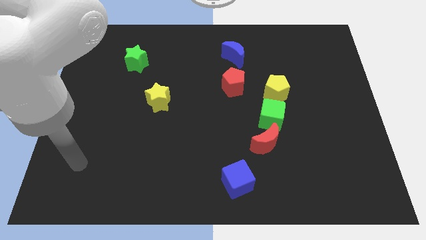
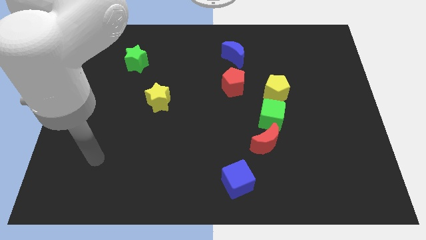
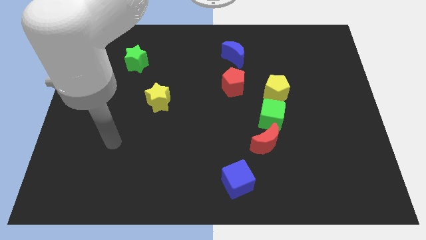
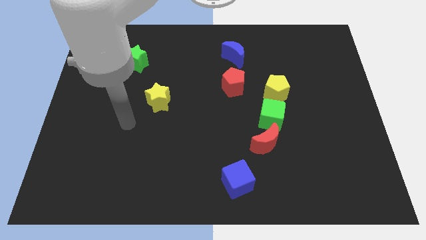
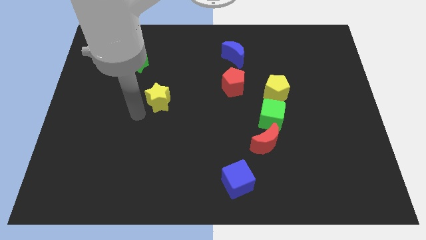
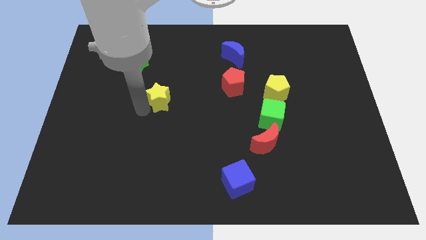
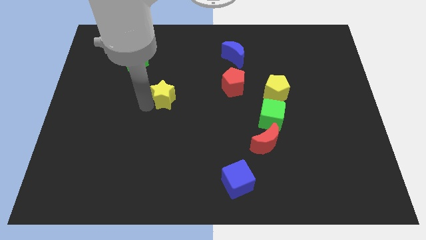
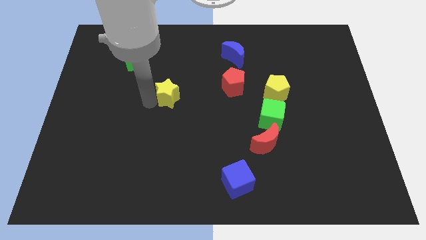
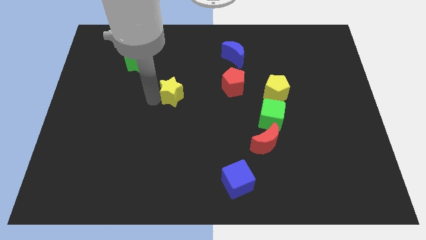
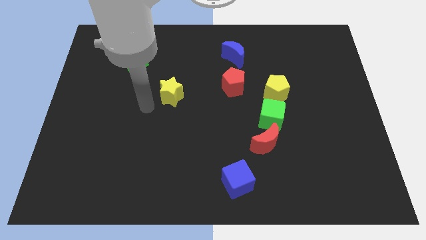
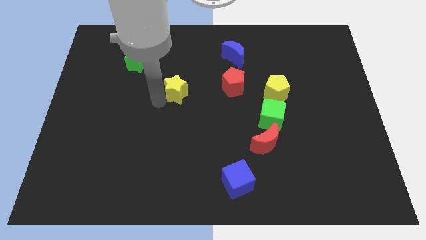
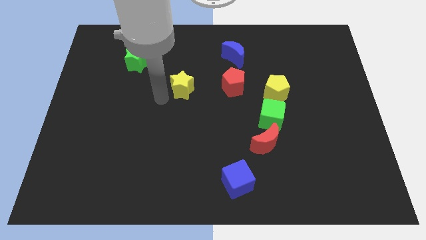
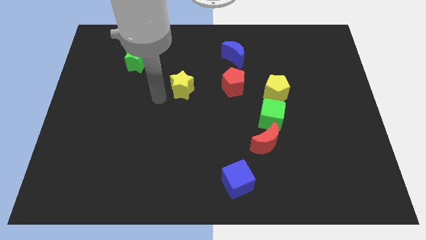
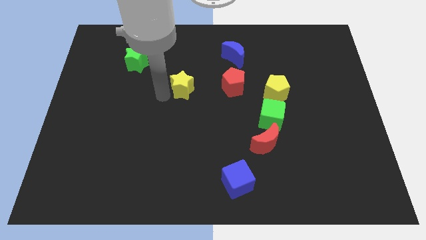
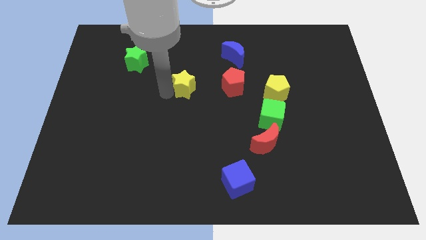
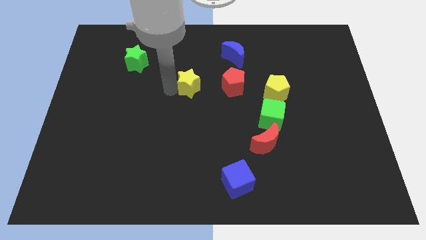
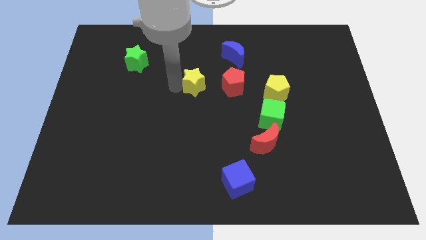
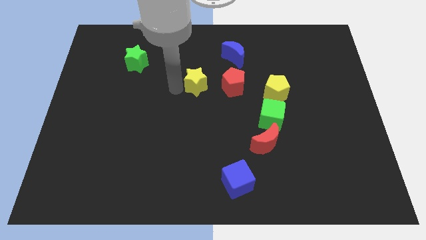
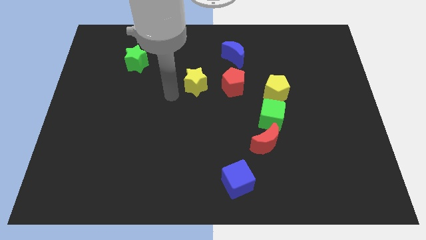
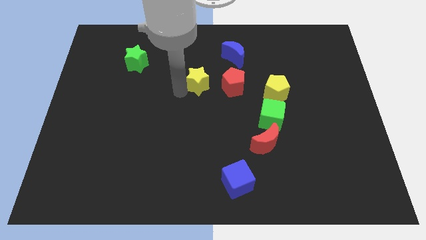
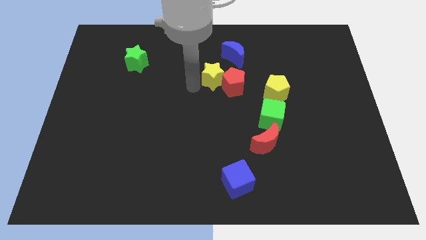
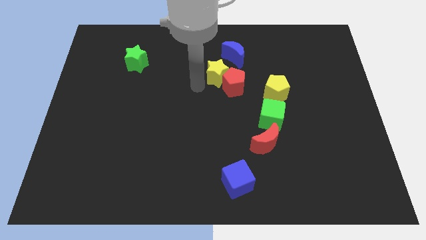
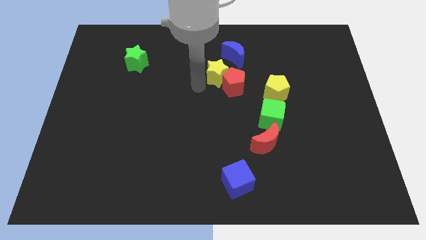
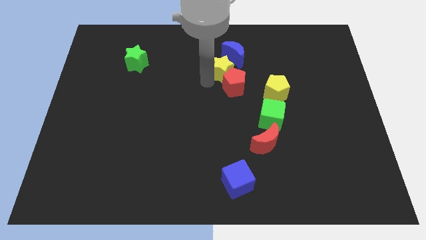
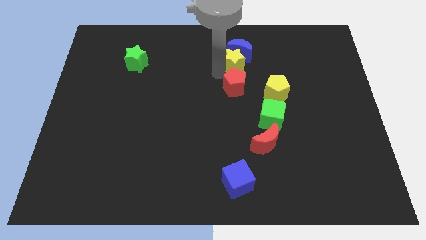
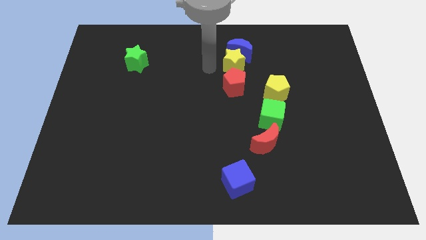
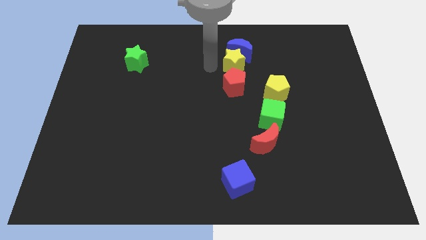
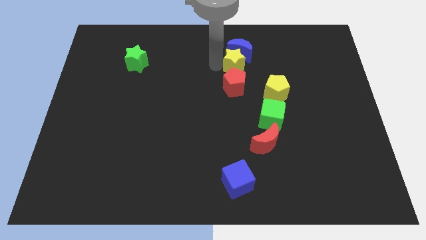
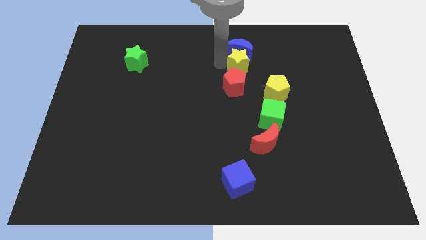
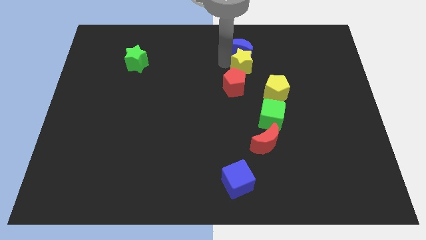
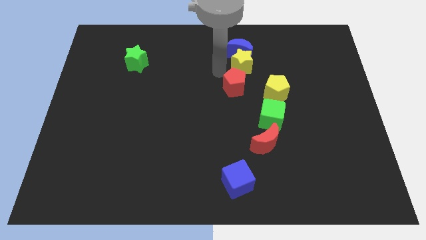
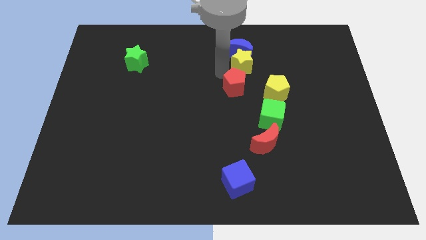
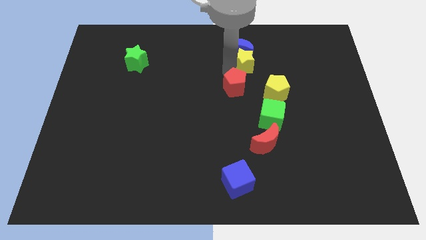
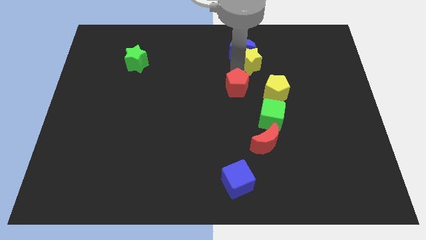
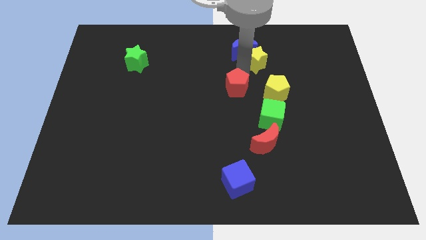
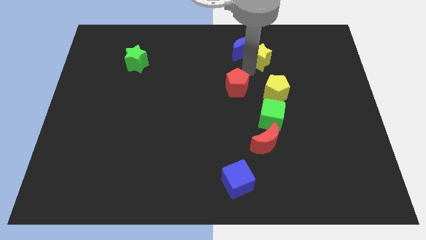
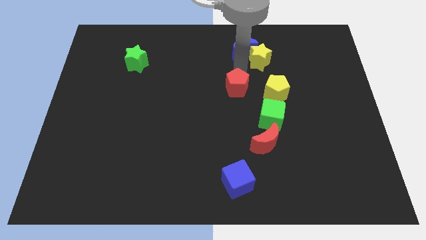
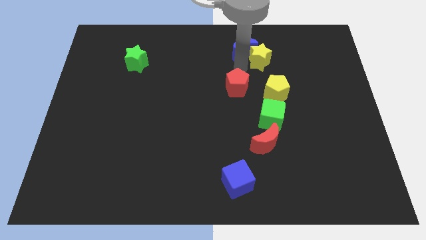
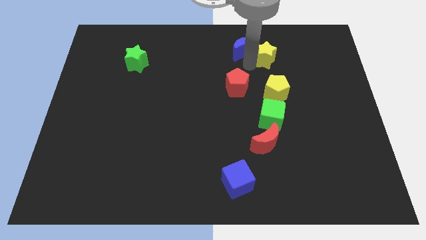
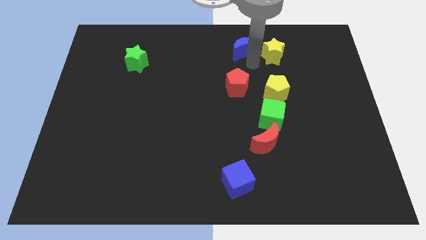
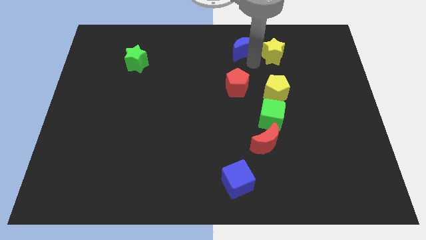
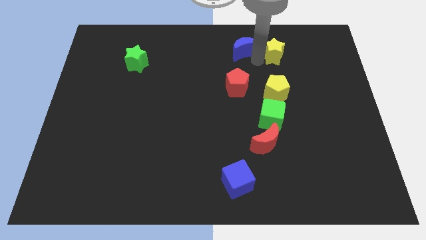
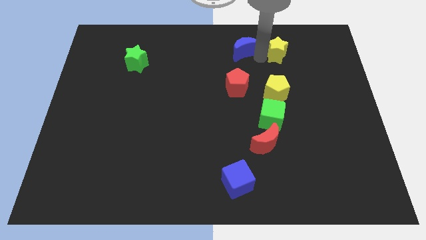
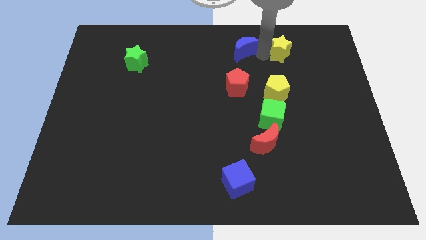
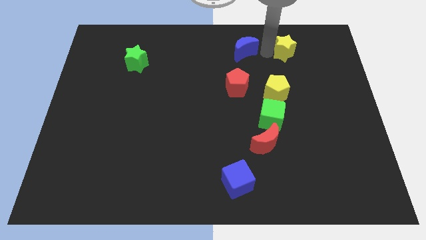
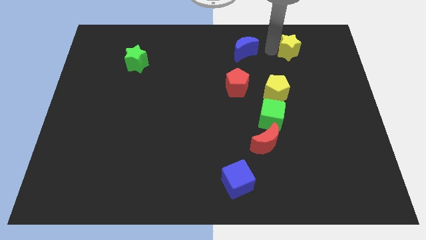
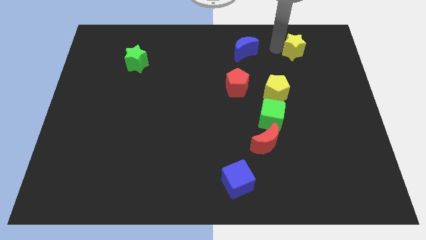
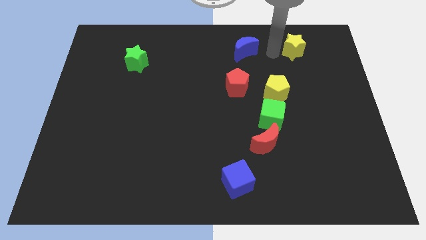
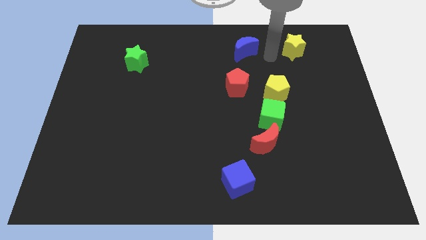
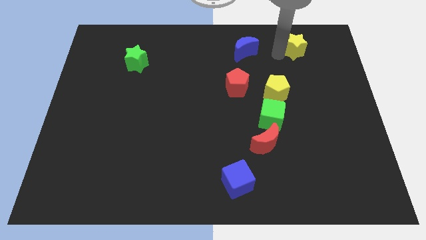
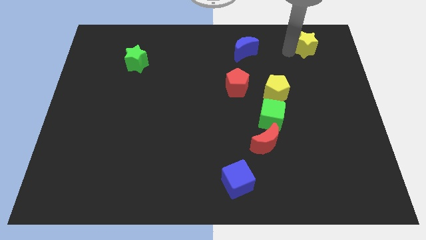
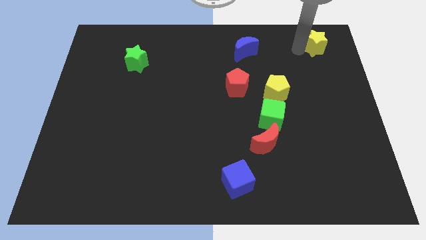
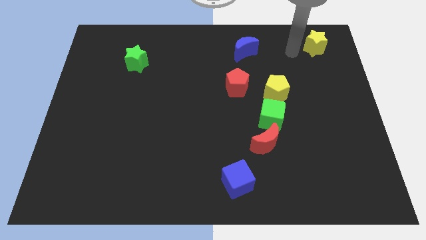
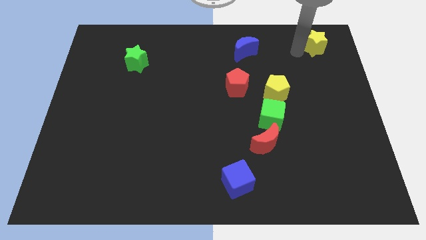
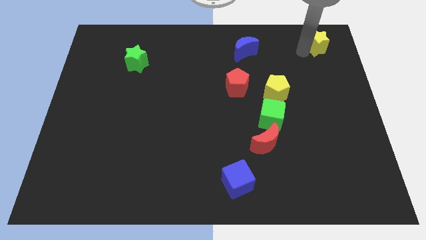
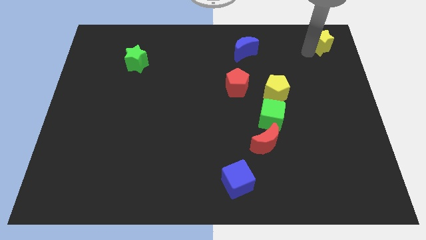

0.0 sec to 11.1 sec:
move the yellow star to the top right of the board

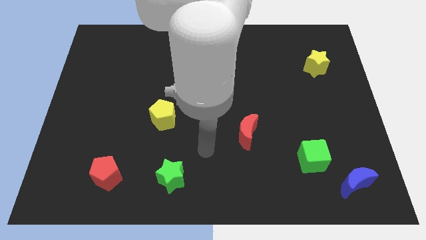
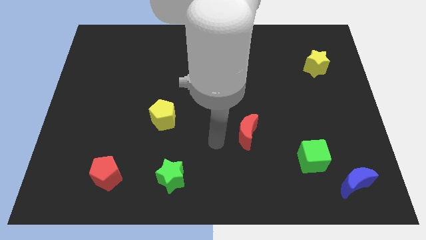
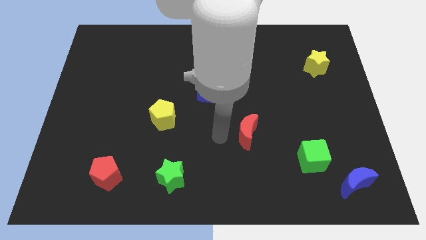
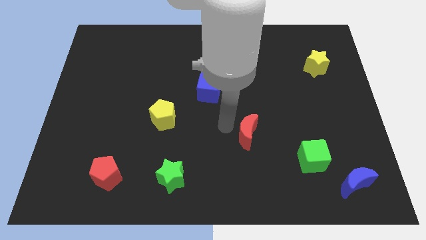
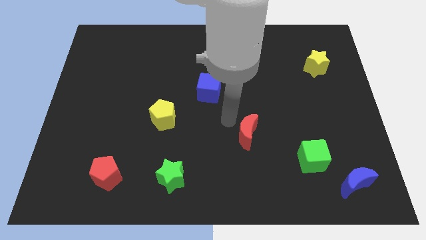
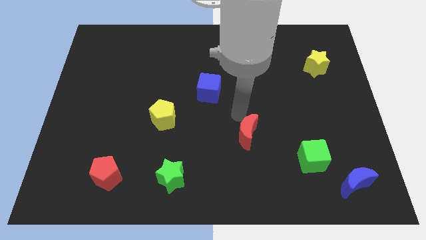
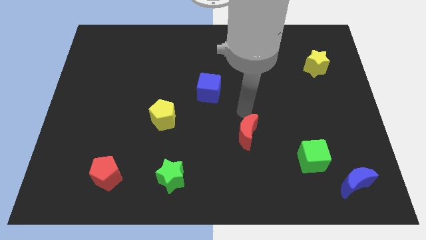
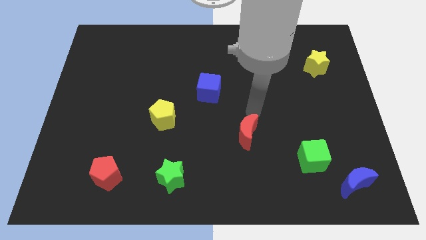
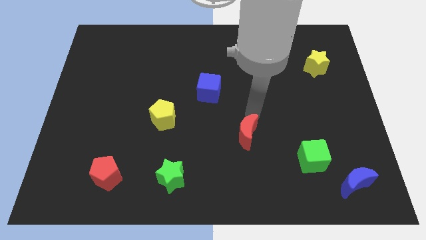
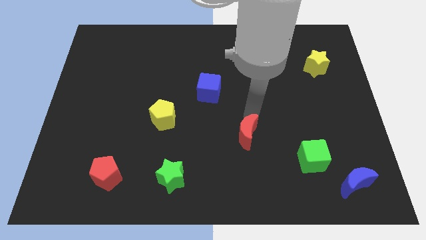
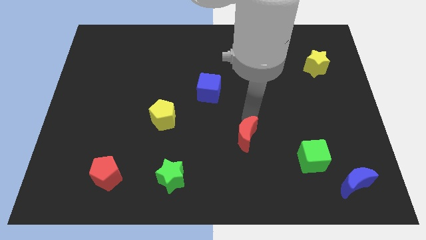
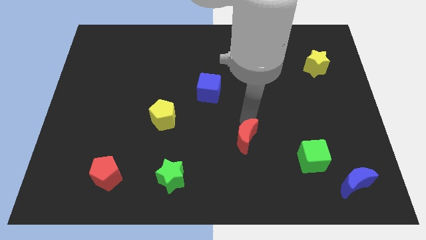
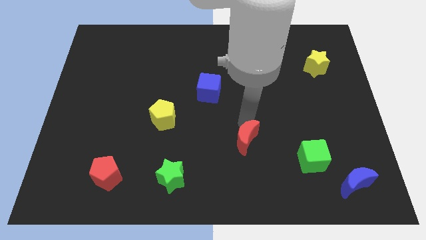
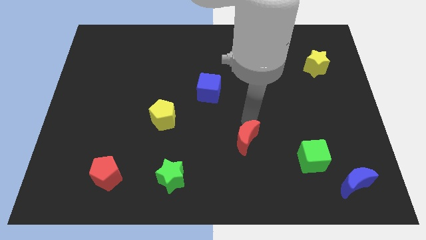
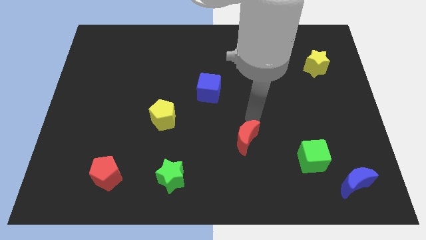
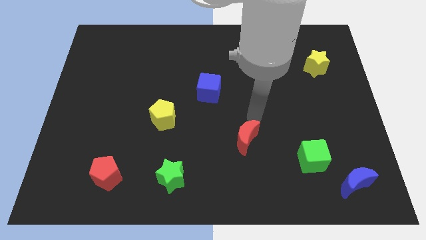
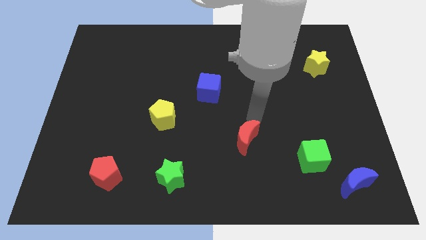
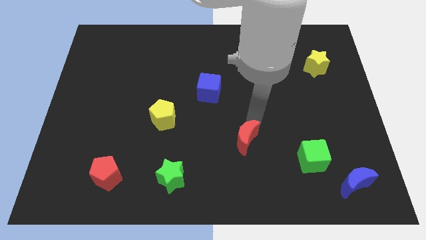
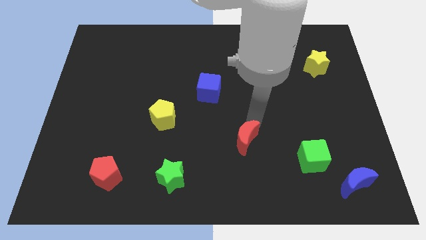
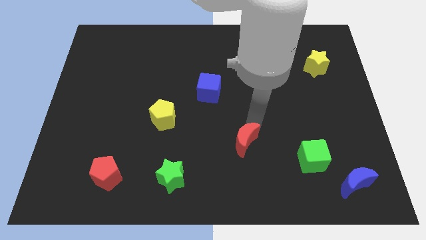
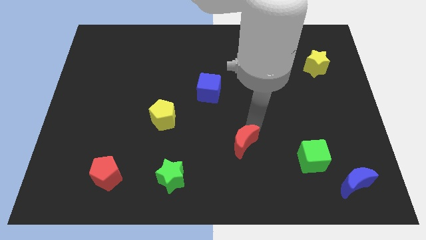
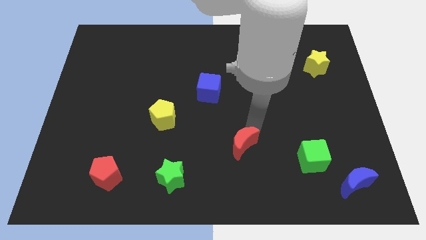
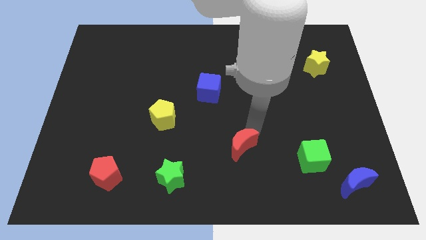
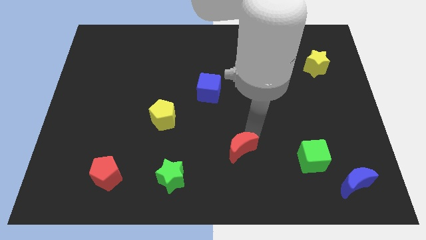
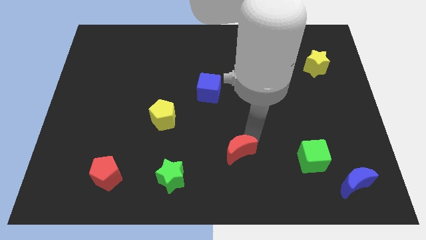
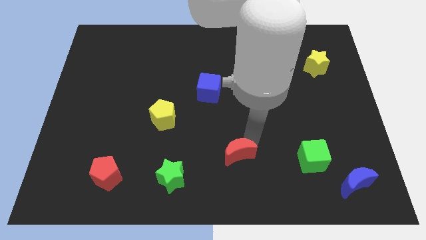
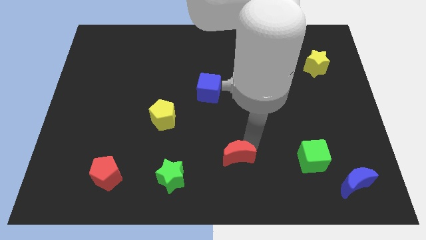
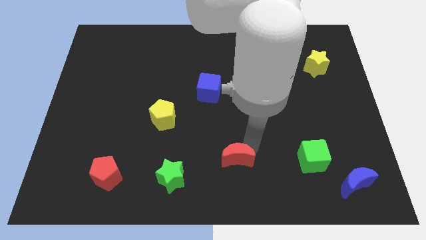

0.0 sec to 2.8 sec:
slide the red moon to the bottom side
